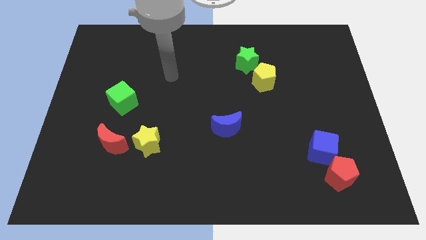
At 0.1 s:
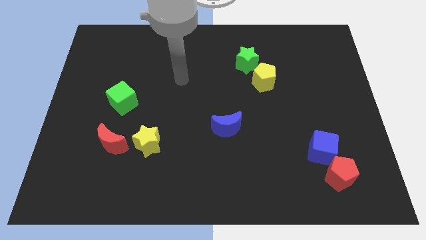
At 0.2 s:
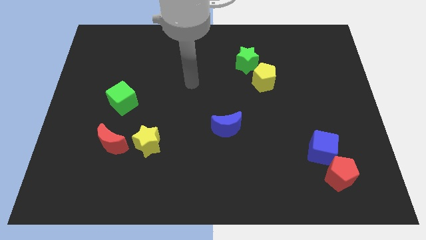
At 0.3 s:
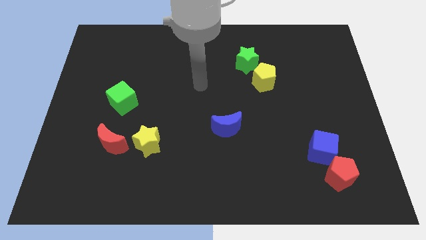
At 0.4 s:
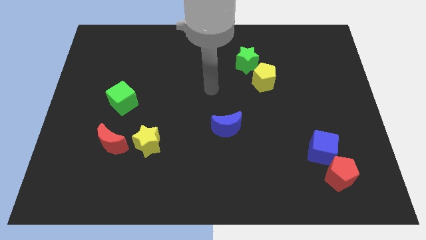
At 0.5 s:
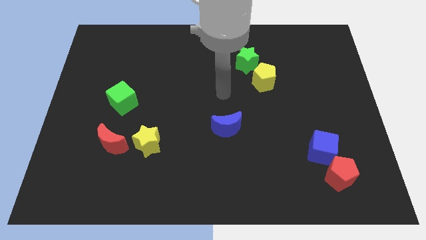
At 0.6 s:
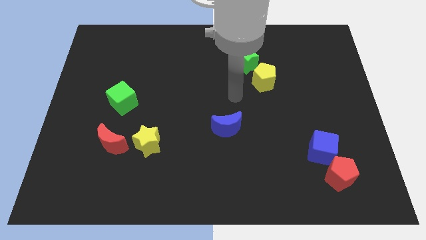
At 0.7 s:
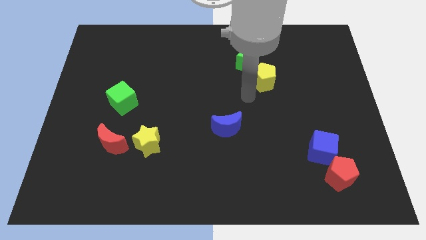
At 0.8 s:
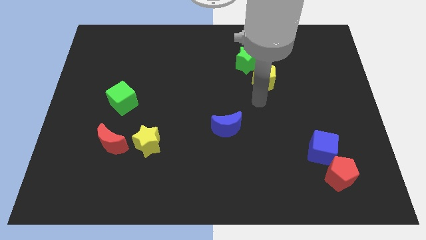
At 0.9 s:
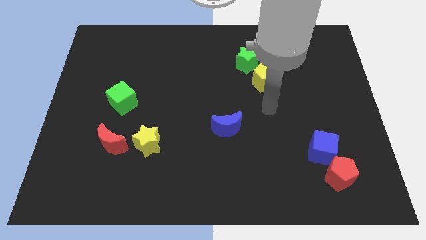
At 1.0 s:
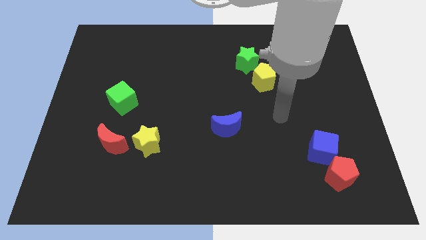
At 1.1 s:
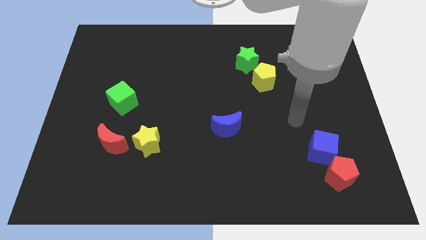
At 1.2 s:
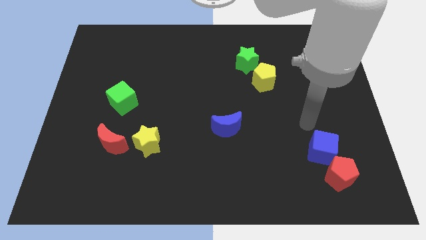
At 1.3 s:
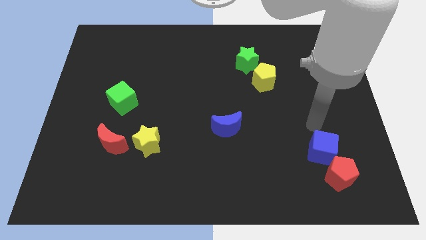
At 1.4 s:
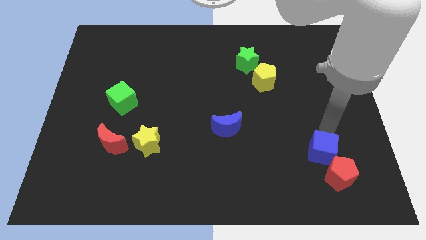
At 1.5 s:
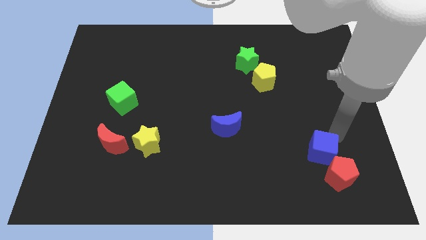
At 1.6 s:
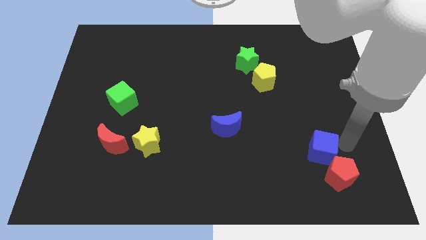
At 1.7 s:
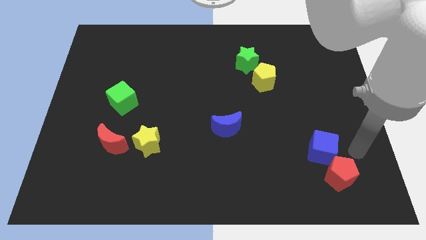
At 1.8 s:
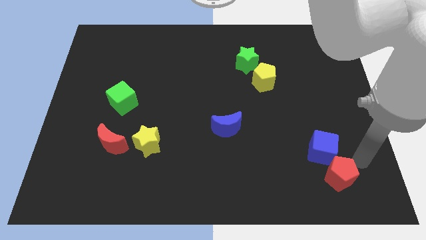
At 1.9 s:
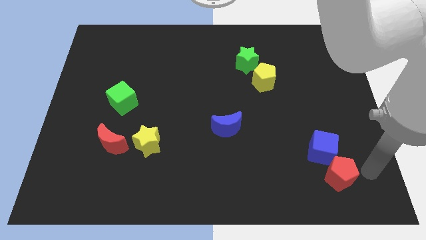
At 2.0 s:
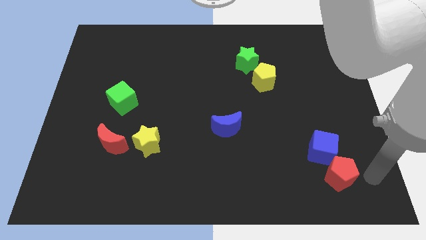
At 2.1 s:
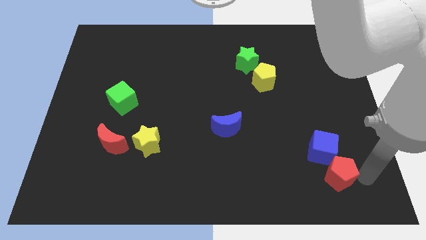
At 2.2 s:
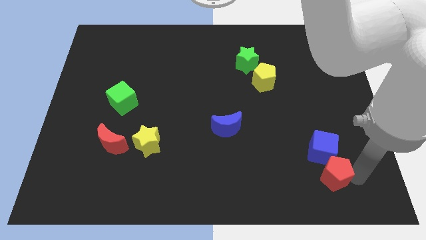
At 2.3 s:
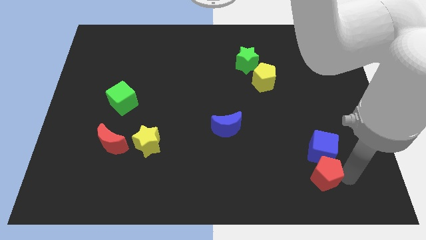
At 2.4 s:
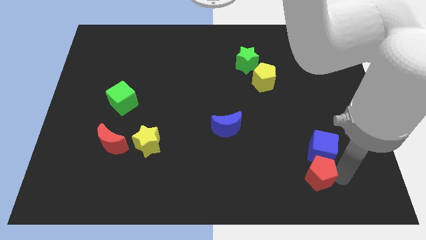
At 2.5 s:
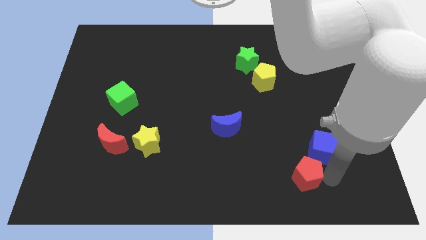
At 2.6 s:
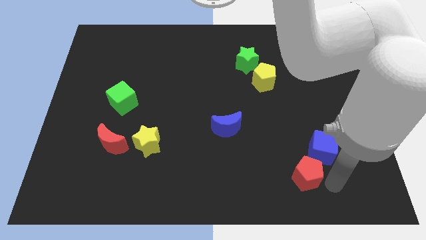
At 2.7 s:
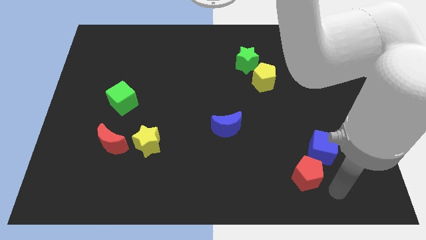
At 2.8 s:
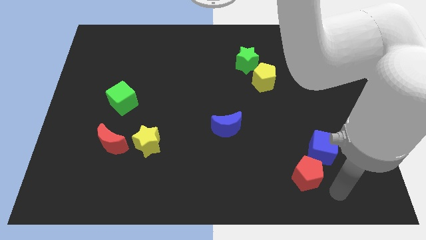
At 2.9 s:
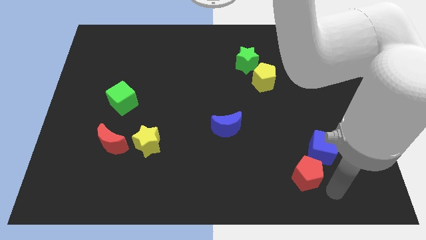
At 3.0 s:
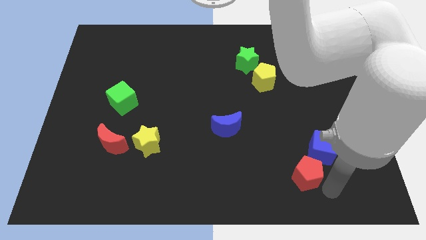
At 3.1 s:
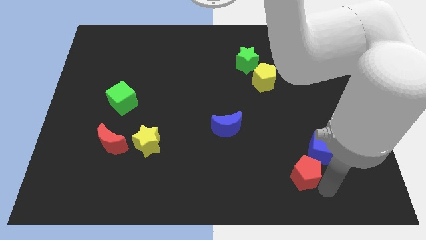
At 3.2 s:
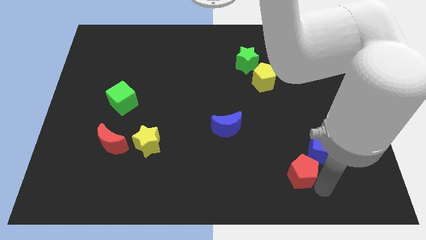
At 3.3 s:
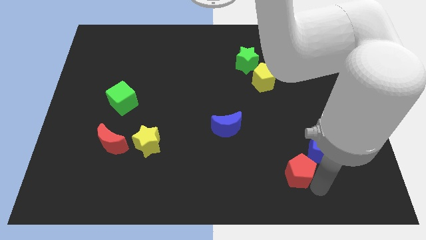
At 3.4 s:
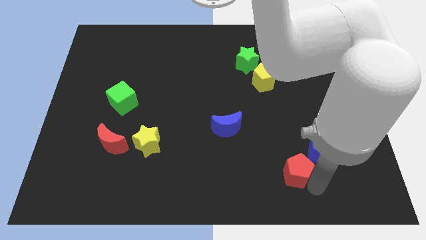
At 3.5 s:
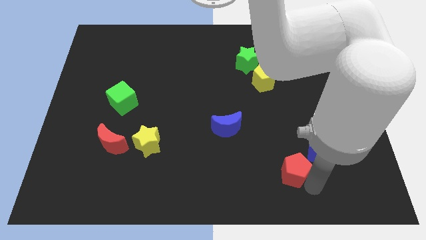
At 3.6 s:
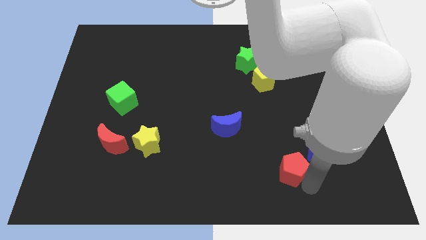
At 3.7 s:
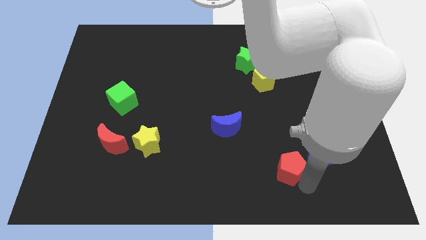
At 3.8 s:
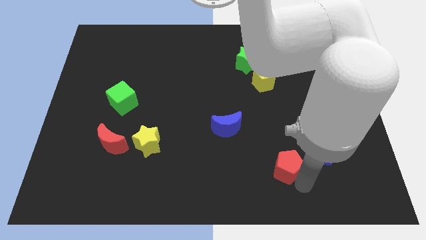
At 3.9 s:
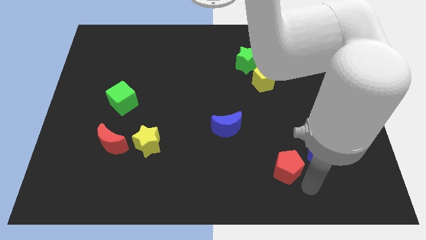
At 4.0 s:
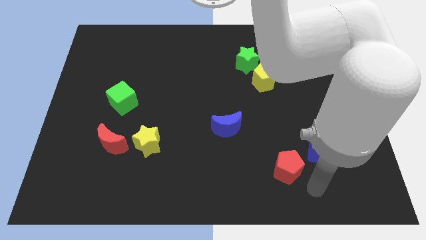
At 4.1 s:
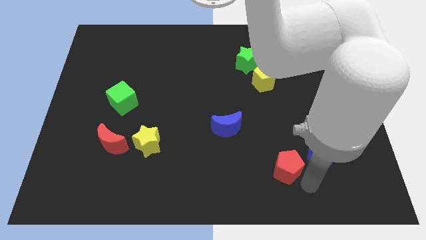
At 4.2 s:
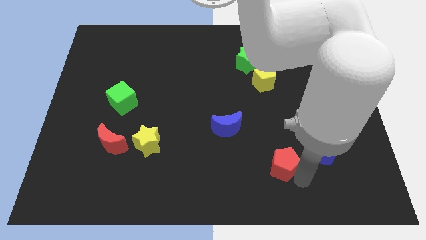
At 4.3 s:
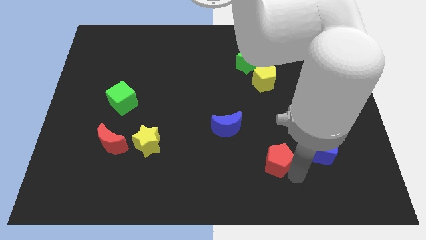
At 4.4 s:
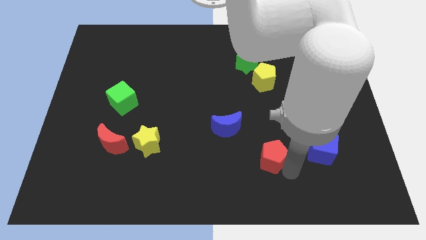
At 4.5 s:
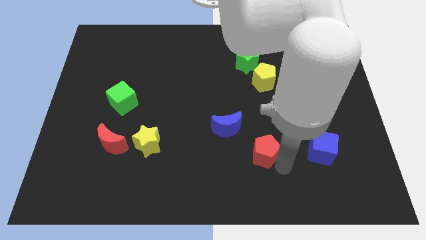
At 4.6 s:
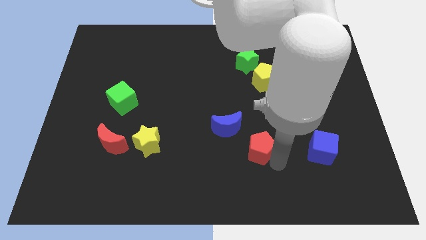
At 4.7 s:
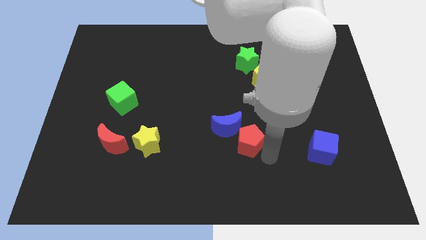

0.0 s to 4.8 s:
move the red pentagon next to the blue moon

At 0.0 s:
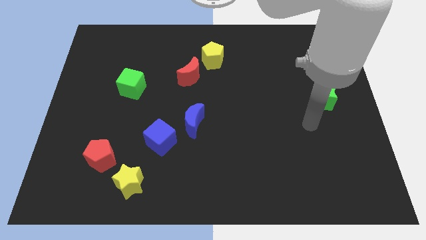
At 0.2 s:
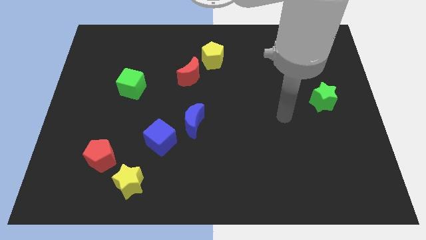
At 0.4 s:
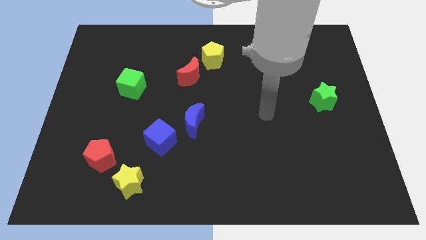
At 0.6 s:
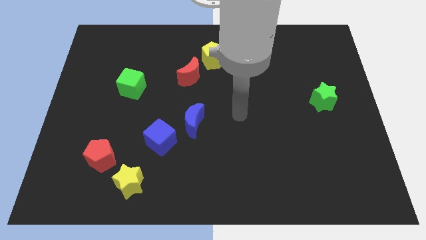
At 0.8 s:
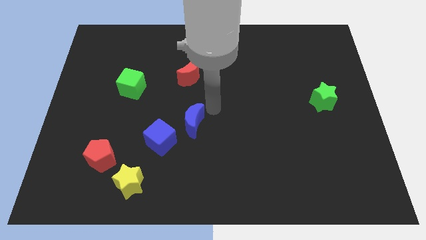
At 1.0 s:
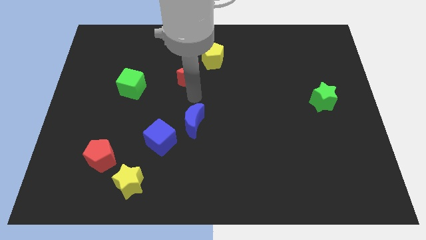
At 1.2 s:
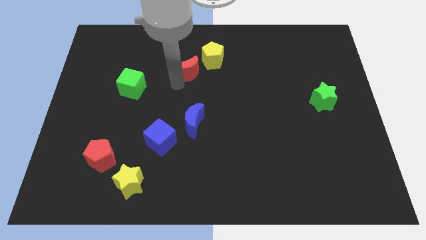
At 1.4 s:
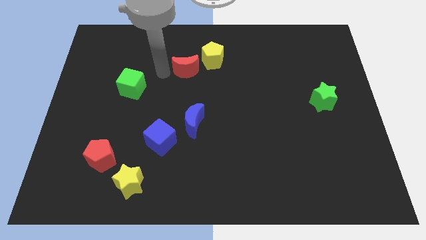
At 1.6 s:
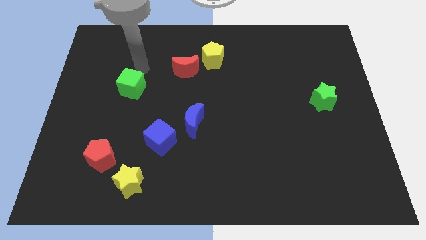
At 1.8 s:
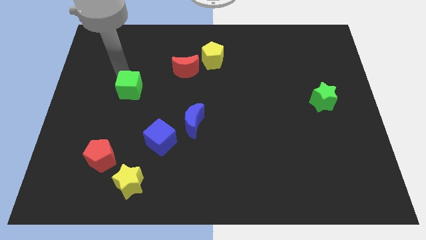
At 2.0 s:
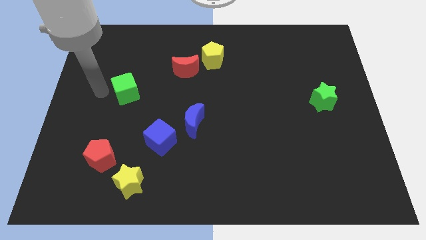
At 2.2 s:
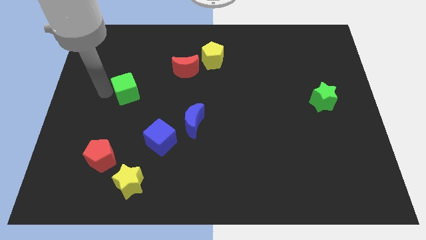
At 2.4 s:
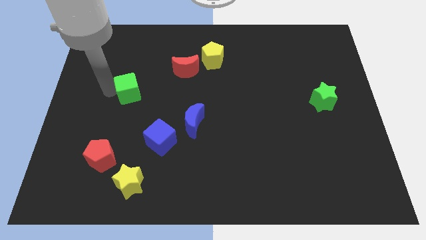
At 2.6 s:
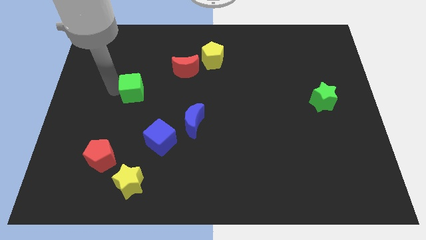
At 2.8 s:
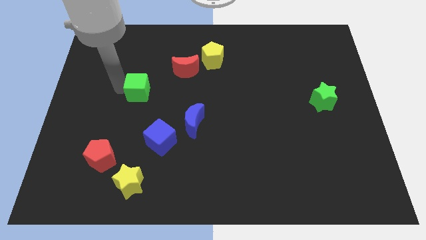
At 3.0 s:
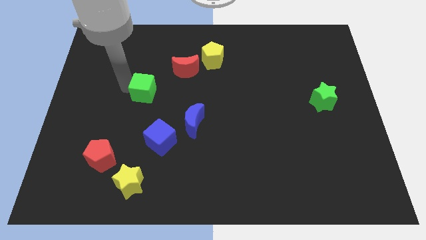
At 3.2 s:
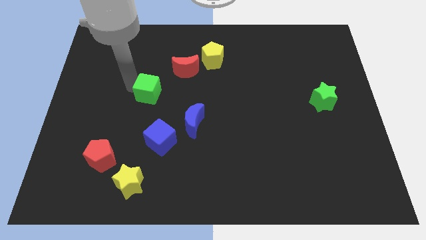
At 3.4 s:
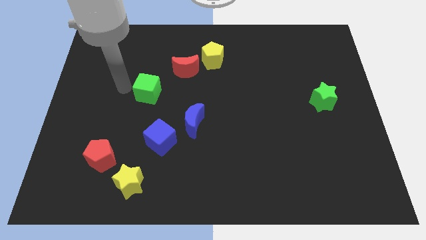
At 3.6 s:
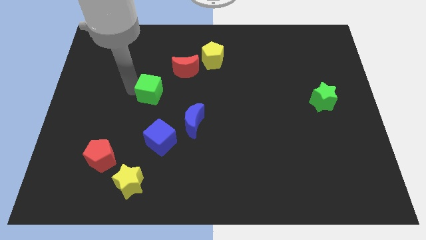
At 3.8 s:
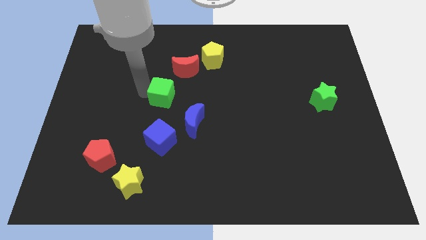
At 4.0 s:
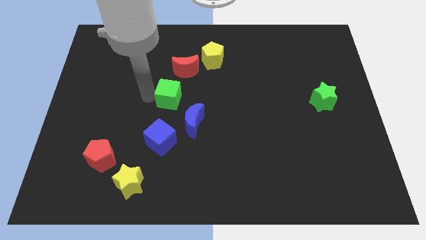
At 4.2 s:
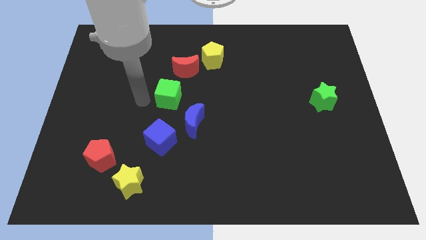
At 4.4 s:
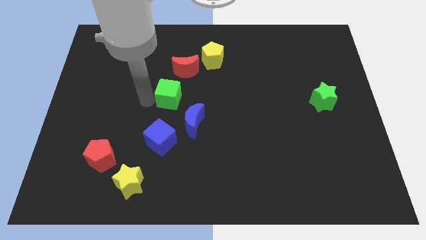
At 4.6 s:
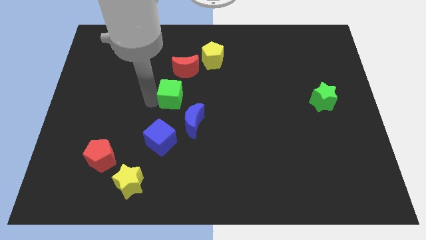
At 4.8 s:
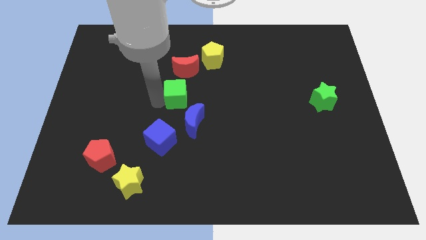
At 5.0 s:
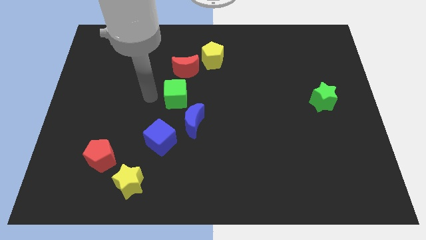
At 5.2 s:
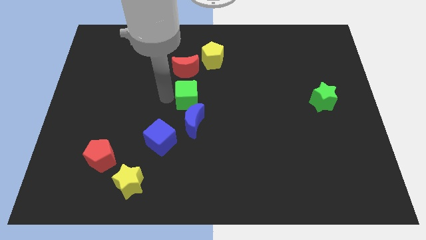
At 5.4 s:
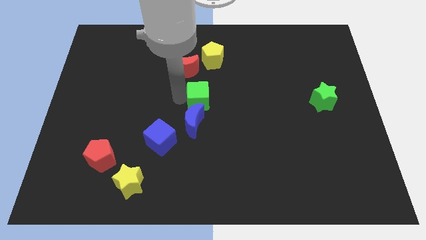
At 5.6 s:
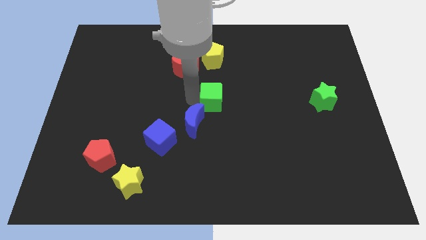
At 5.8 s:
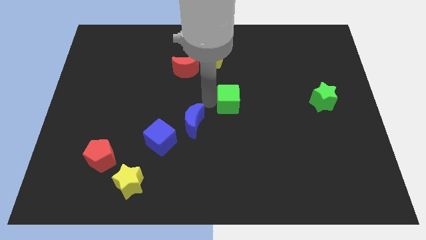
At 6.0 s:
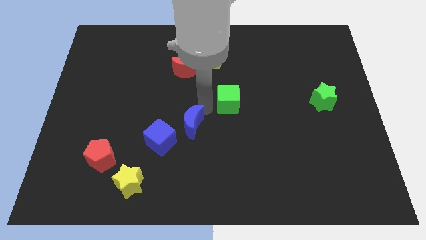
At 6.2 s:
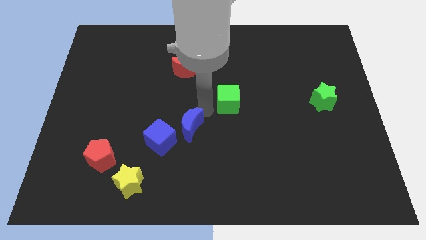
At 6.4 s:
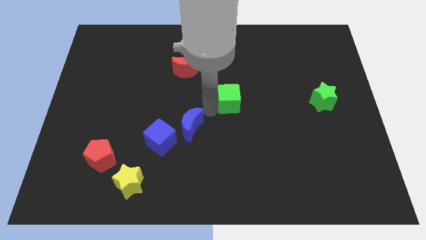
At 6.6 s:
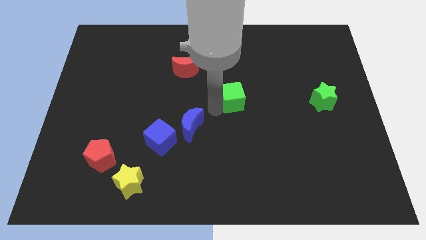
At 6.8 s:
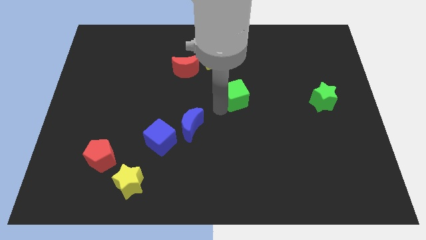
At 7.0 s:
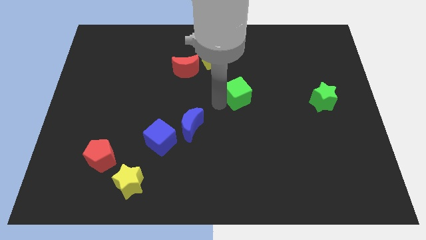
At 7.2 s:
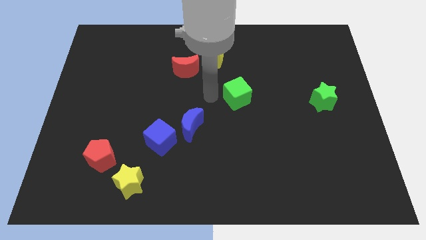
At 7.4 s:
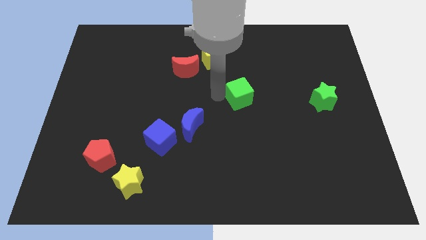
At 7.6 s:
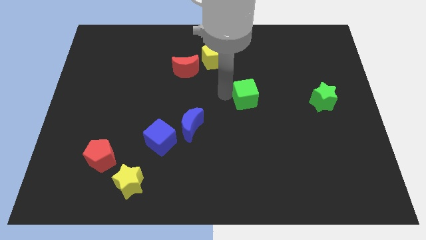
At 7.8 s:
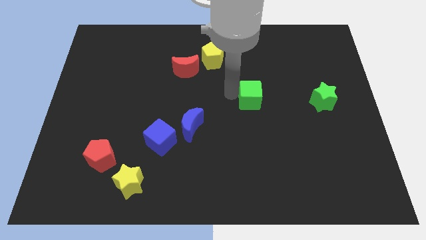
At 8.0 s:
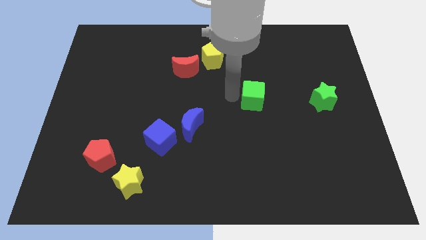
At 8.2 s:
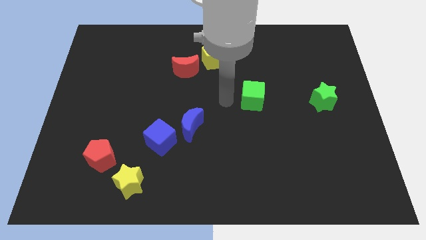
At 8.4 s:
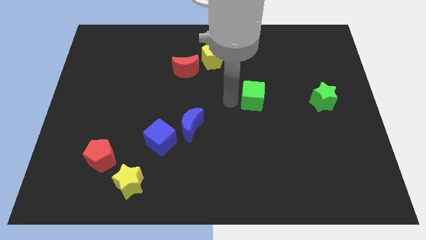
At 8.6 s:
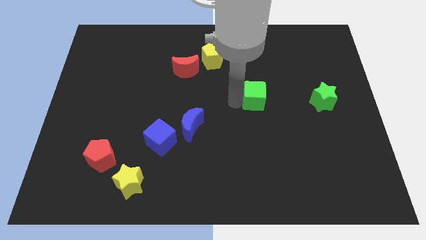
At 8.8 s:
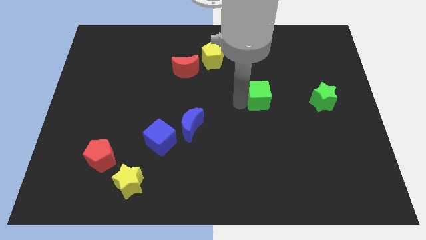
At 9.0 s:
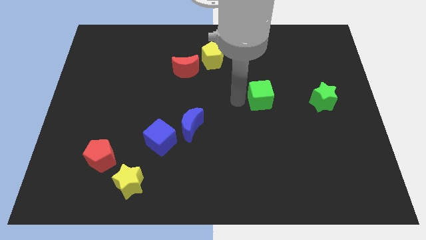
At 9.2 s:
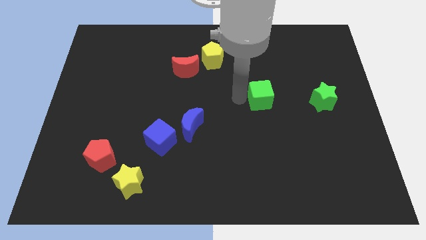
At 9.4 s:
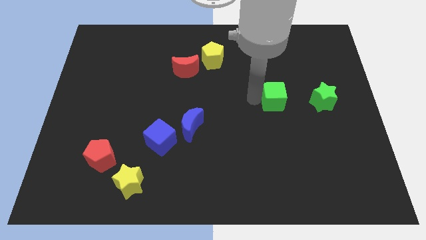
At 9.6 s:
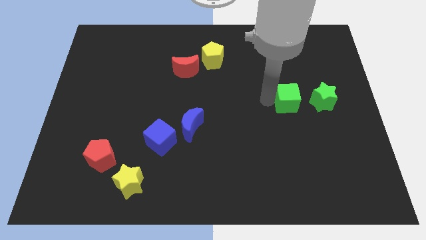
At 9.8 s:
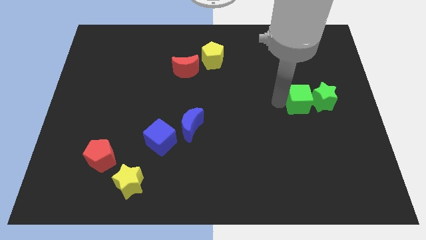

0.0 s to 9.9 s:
slide the green cube to the green star
